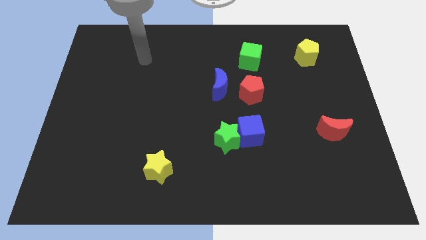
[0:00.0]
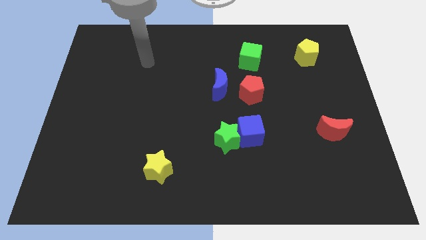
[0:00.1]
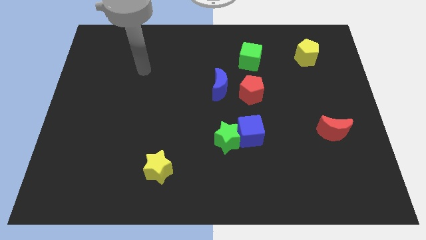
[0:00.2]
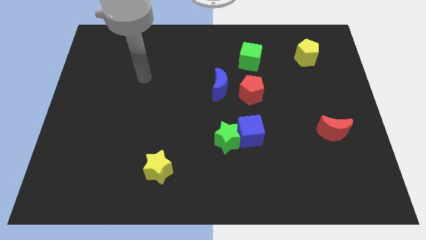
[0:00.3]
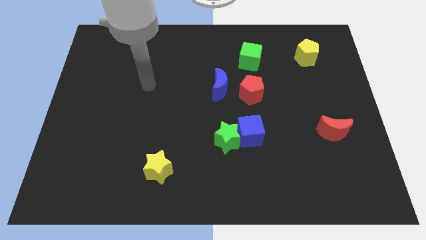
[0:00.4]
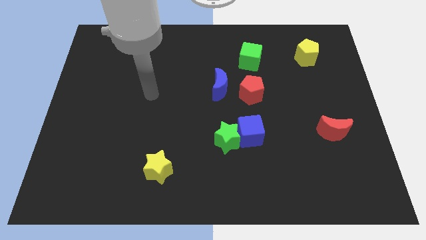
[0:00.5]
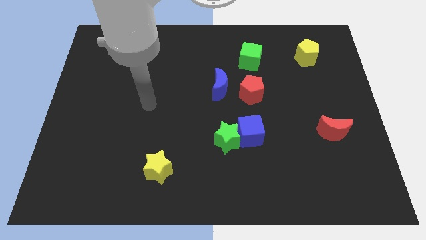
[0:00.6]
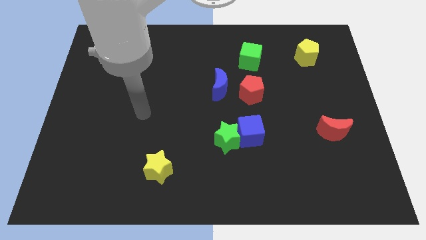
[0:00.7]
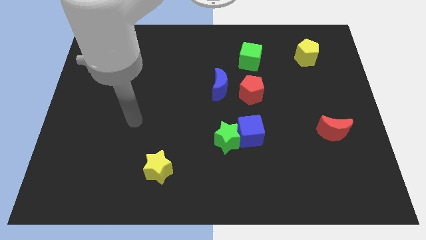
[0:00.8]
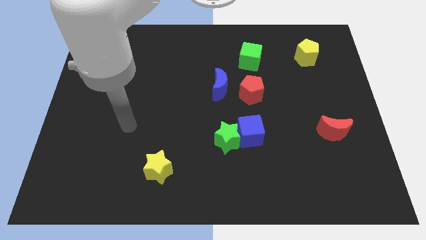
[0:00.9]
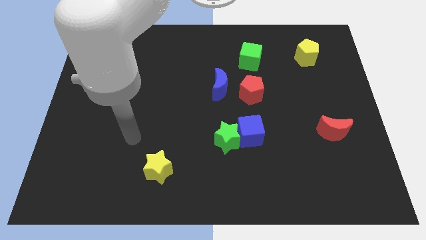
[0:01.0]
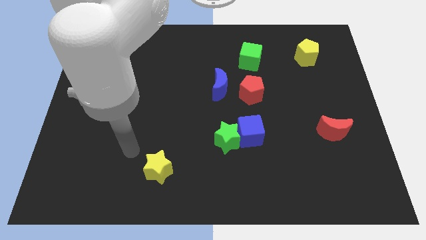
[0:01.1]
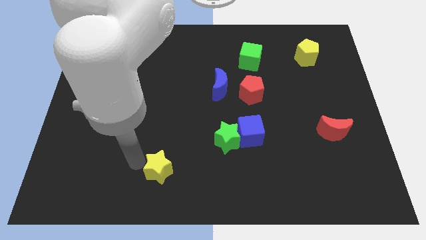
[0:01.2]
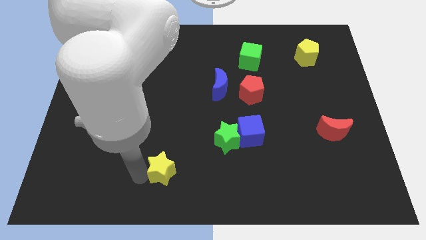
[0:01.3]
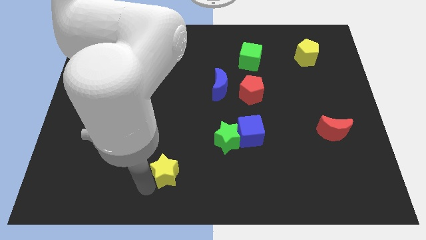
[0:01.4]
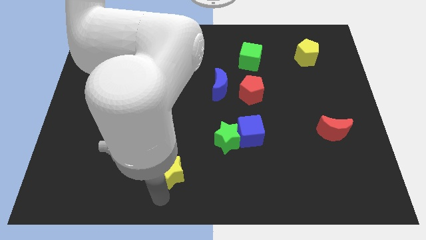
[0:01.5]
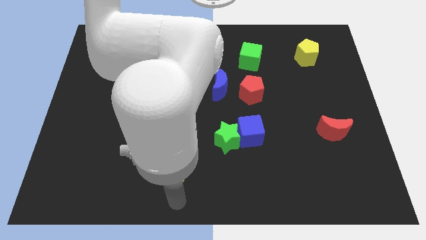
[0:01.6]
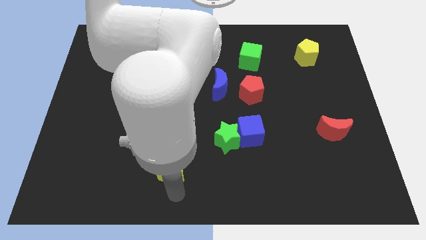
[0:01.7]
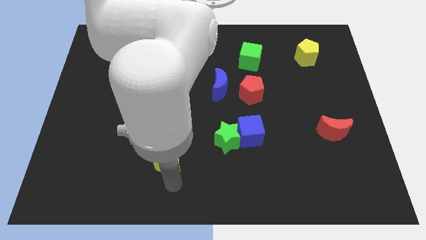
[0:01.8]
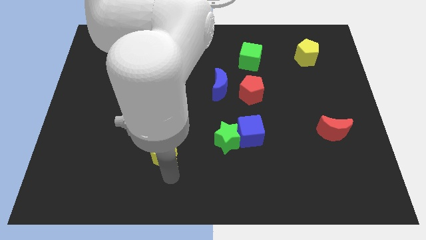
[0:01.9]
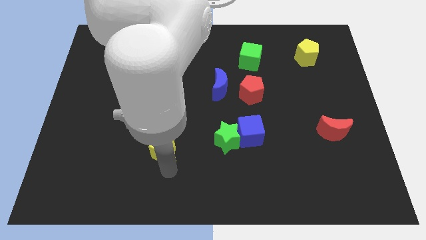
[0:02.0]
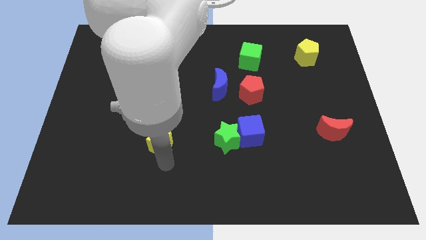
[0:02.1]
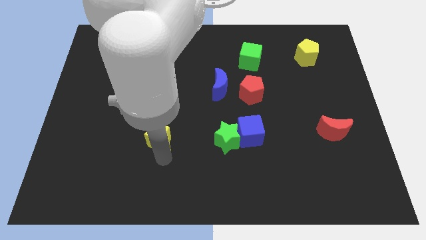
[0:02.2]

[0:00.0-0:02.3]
move the yellow star up somewhat

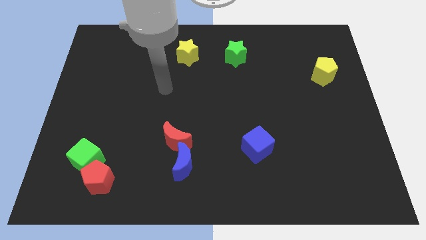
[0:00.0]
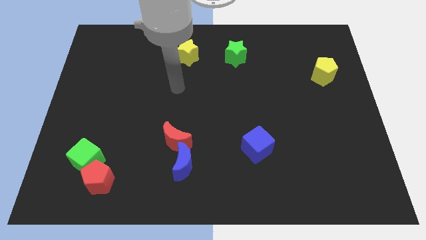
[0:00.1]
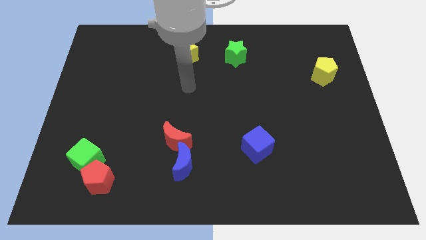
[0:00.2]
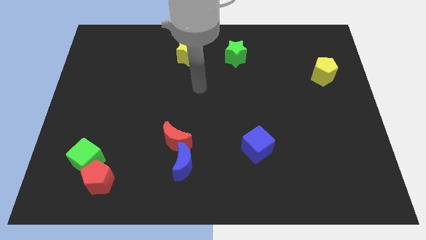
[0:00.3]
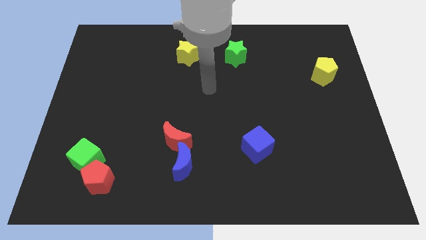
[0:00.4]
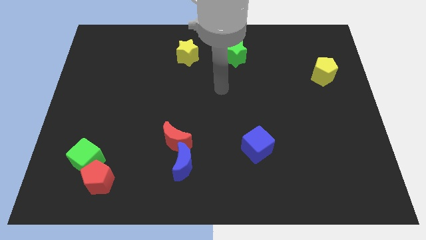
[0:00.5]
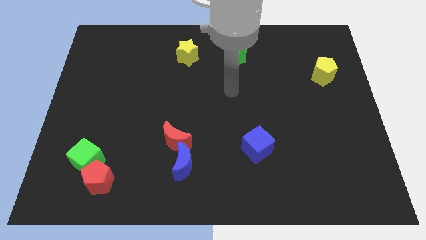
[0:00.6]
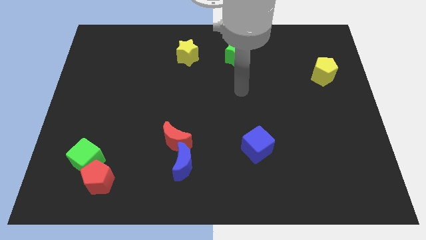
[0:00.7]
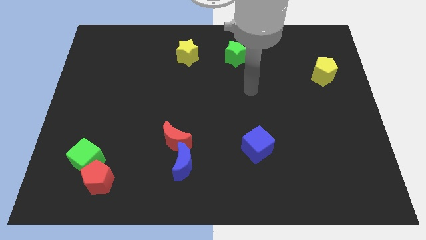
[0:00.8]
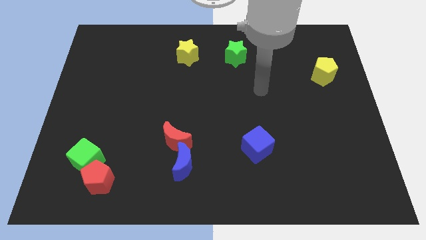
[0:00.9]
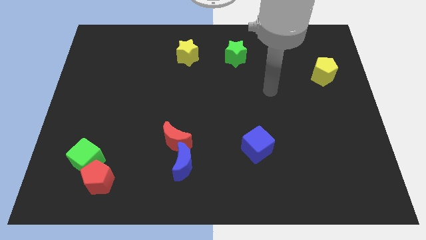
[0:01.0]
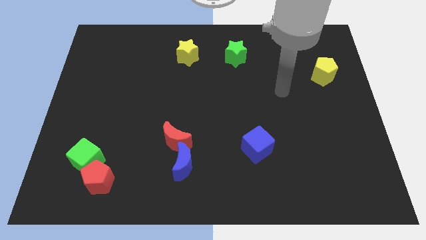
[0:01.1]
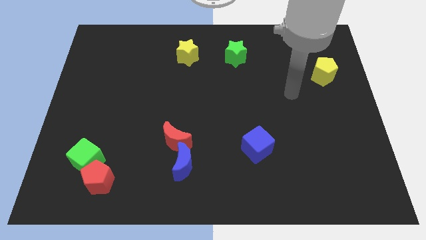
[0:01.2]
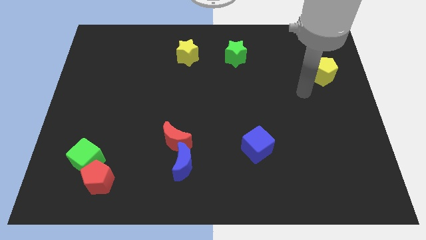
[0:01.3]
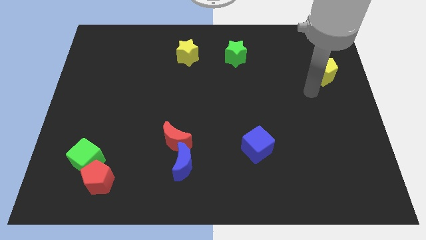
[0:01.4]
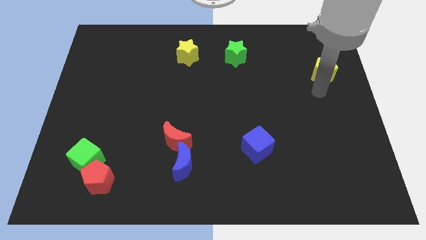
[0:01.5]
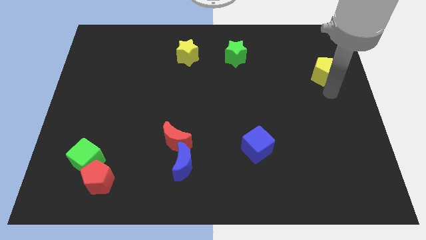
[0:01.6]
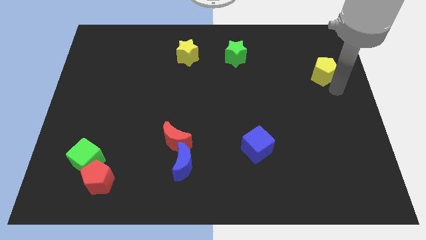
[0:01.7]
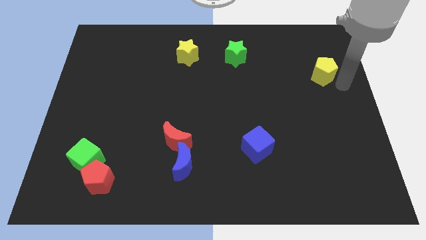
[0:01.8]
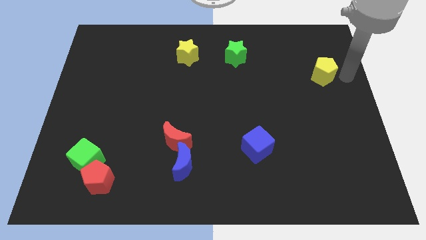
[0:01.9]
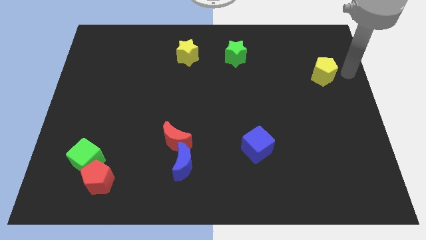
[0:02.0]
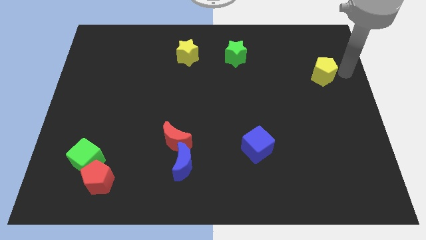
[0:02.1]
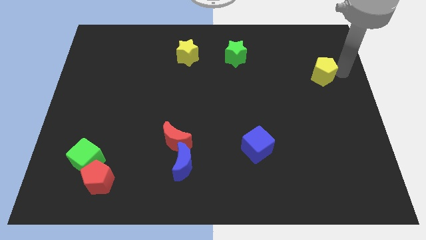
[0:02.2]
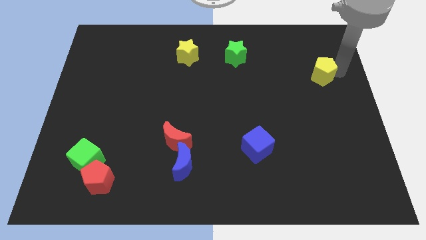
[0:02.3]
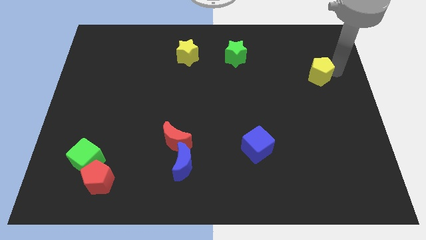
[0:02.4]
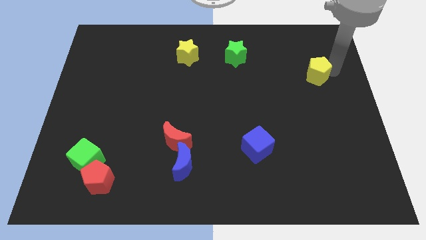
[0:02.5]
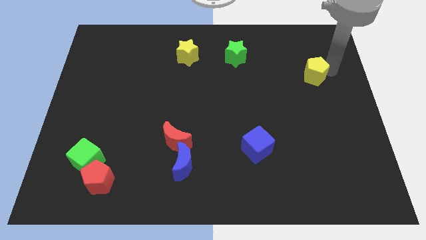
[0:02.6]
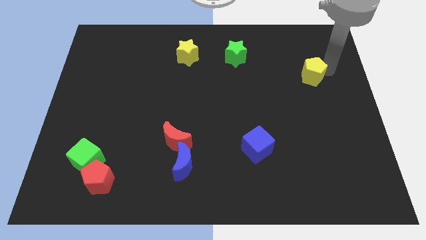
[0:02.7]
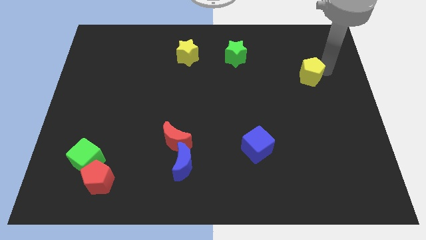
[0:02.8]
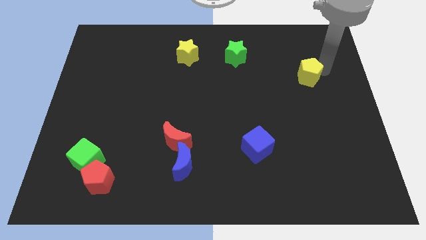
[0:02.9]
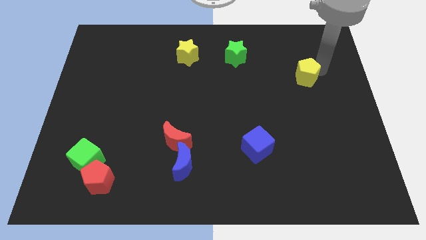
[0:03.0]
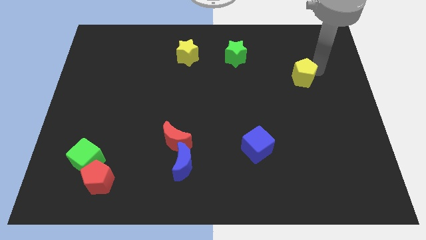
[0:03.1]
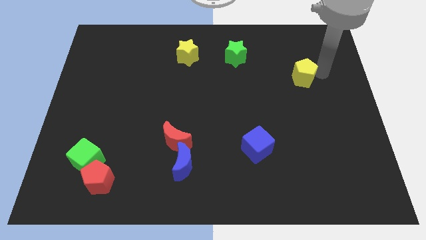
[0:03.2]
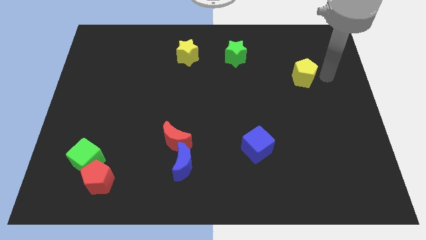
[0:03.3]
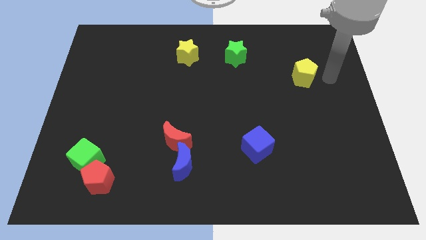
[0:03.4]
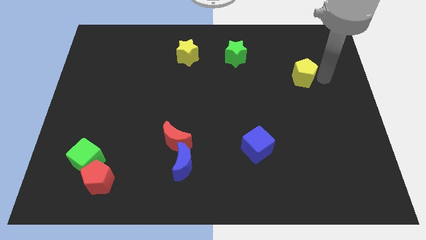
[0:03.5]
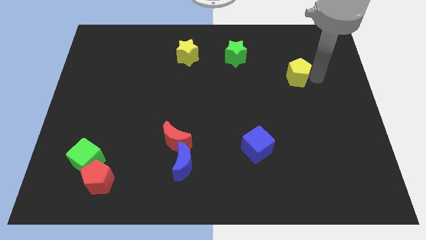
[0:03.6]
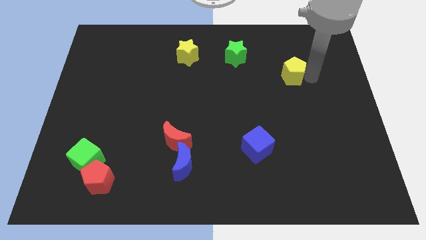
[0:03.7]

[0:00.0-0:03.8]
push the yellow pentagon left a little

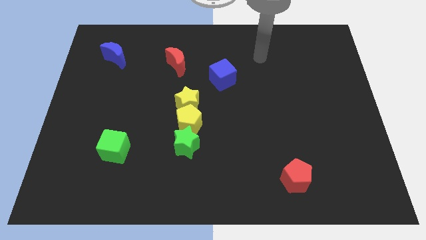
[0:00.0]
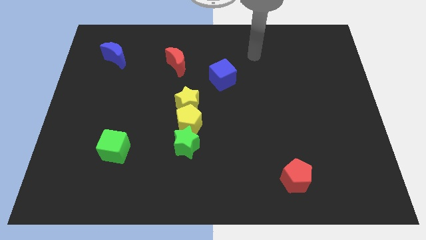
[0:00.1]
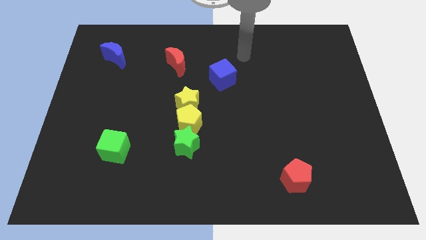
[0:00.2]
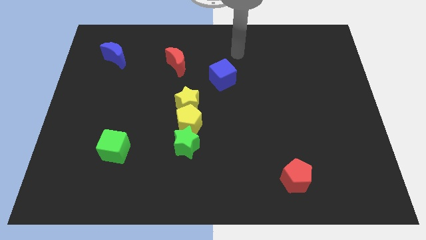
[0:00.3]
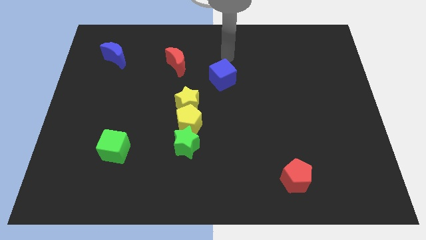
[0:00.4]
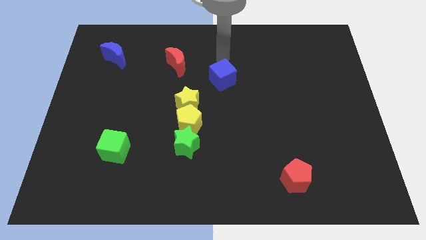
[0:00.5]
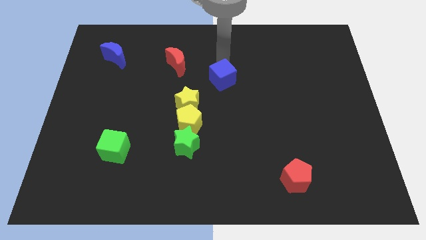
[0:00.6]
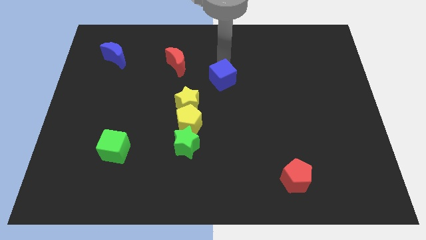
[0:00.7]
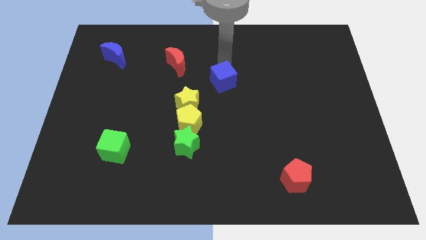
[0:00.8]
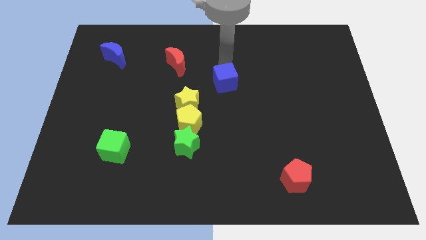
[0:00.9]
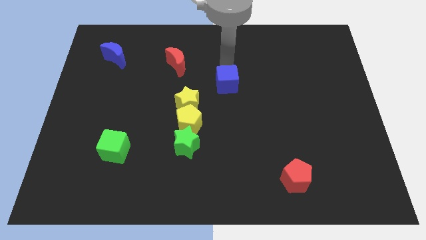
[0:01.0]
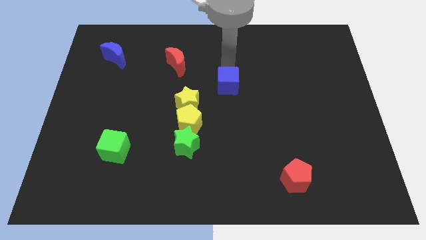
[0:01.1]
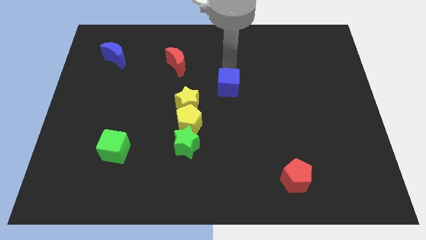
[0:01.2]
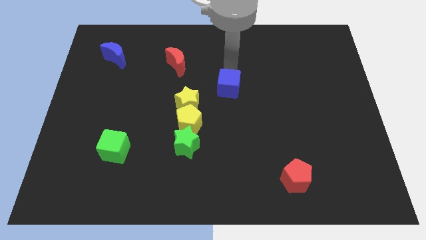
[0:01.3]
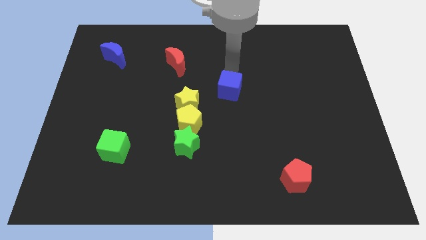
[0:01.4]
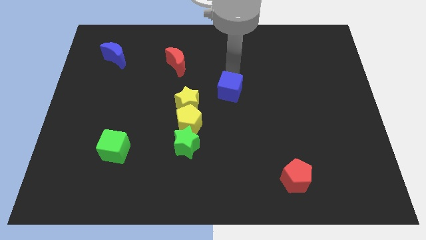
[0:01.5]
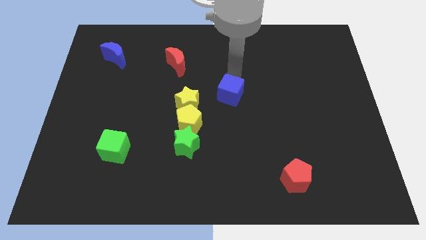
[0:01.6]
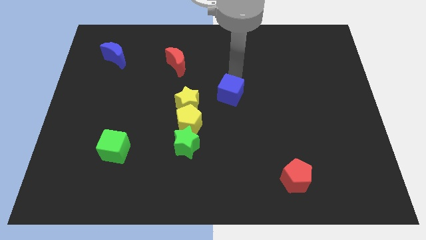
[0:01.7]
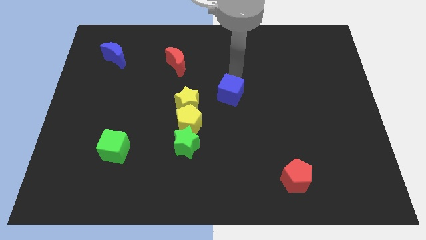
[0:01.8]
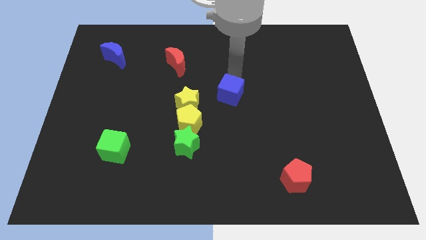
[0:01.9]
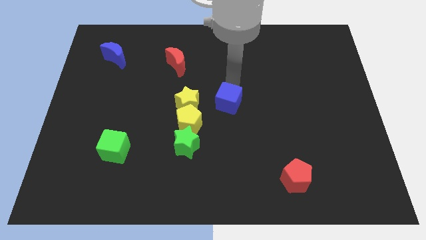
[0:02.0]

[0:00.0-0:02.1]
slightly move the blue cube down
